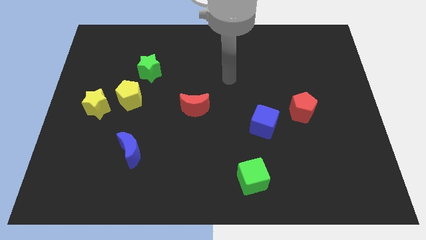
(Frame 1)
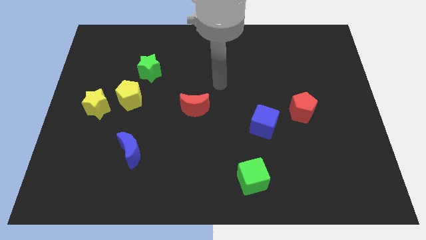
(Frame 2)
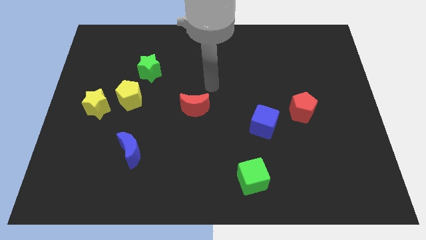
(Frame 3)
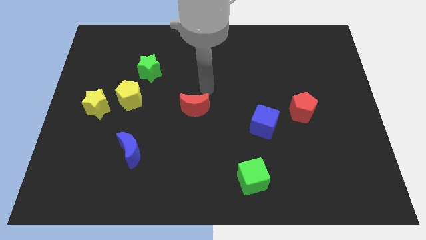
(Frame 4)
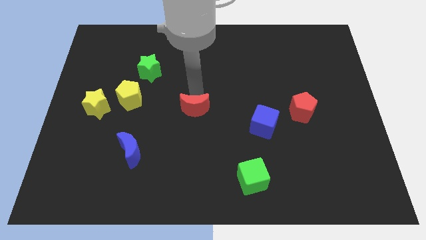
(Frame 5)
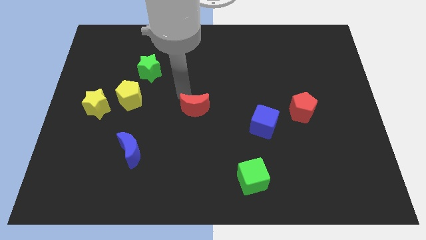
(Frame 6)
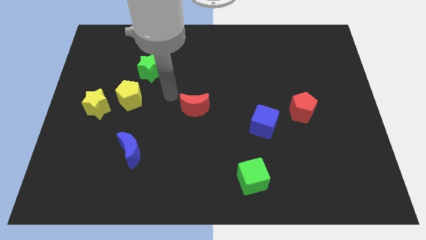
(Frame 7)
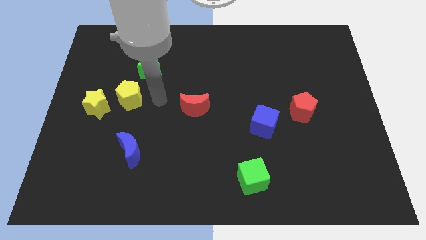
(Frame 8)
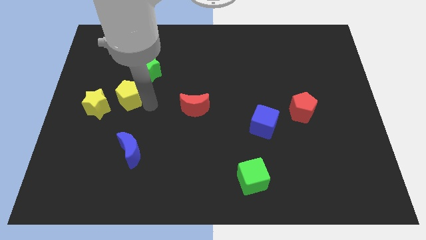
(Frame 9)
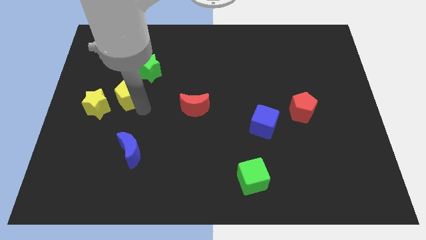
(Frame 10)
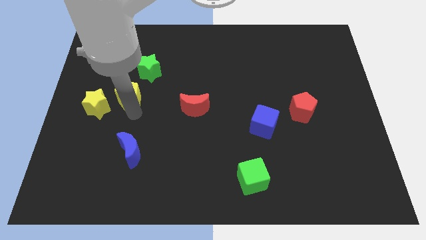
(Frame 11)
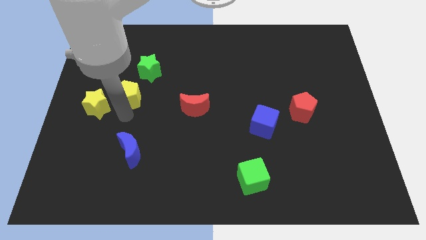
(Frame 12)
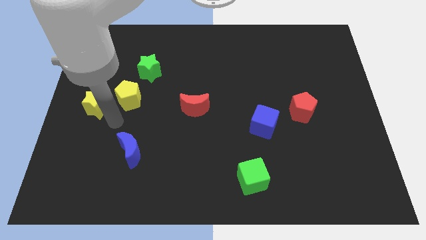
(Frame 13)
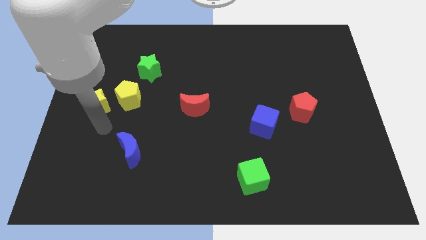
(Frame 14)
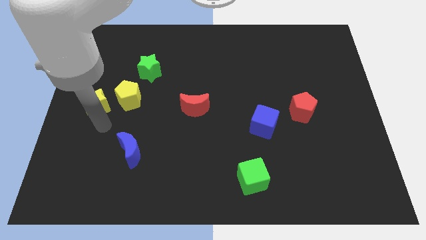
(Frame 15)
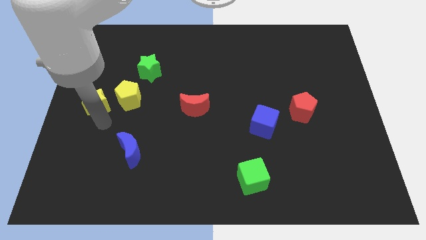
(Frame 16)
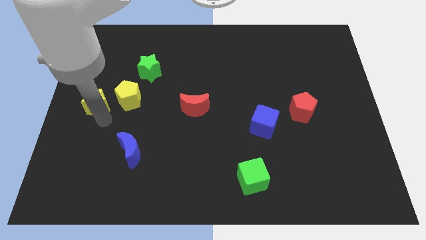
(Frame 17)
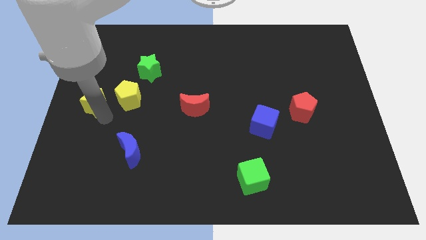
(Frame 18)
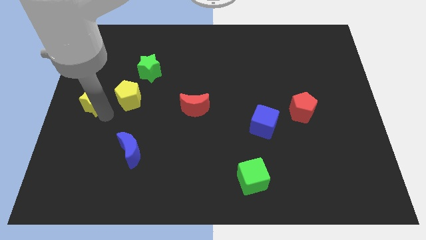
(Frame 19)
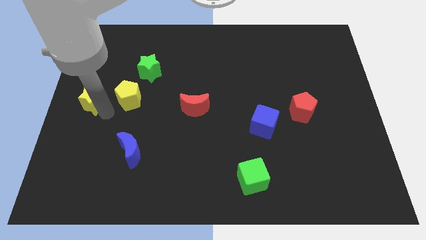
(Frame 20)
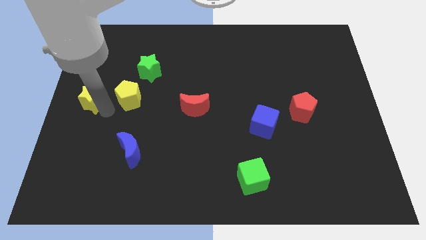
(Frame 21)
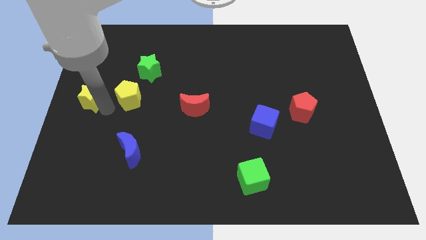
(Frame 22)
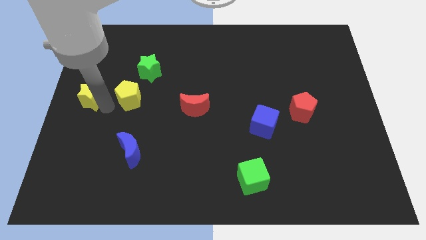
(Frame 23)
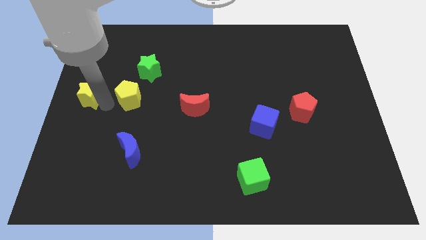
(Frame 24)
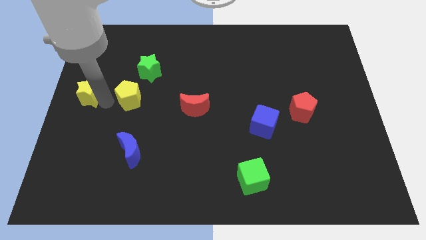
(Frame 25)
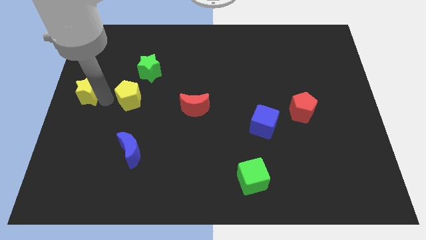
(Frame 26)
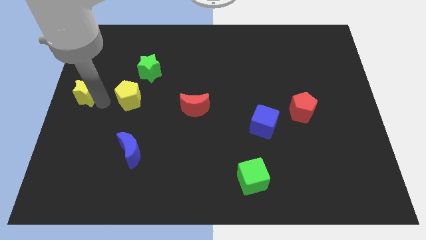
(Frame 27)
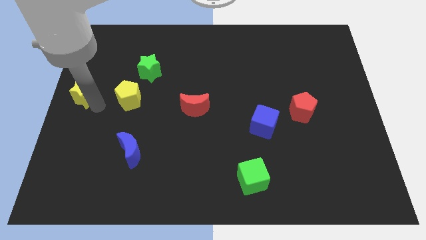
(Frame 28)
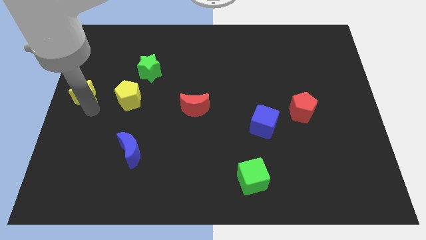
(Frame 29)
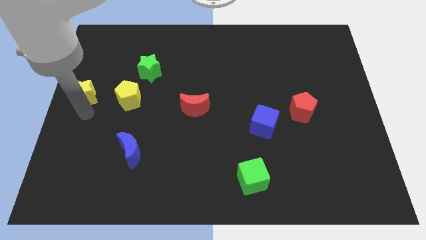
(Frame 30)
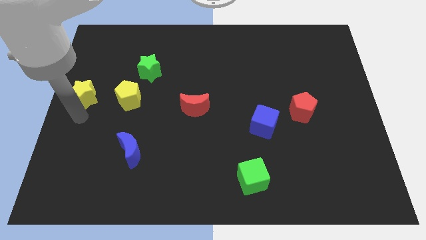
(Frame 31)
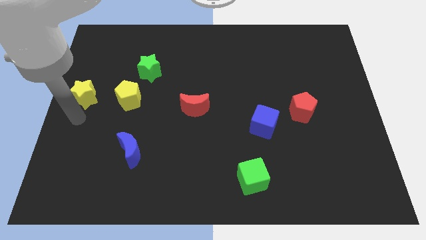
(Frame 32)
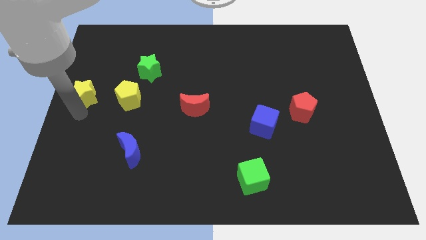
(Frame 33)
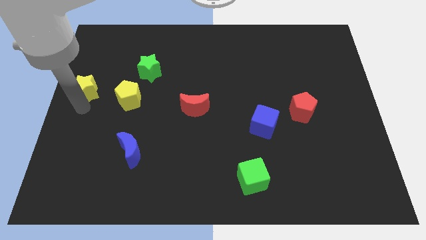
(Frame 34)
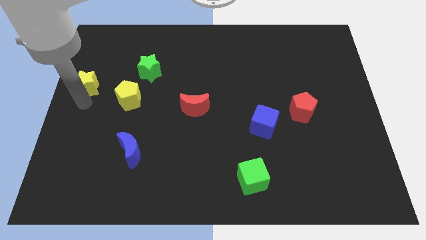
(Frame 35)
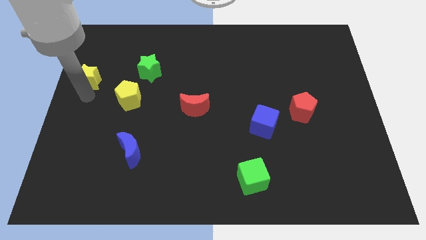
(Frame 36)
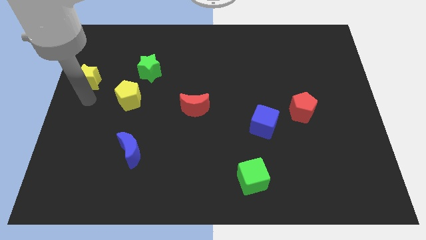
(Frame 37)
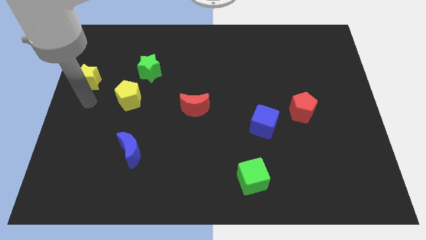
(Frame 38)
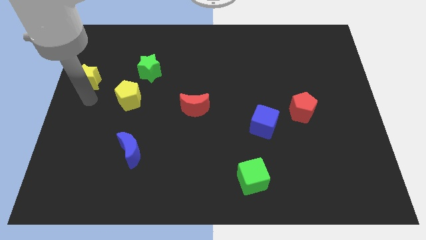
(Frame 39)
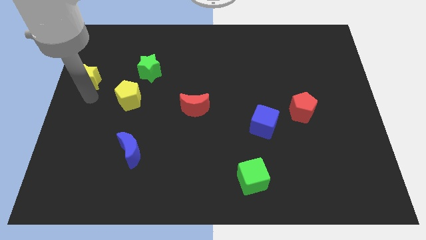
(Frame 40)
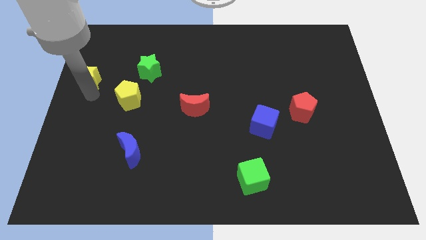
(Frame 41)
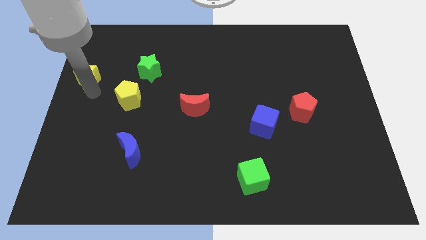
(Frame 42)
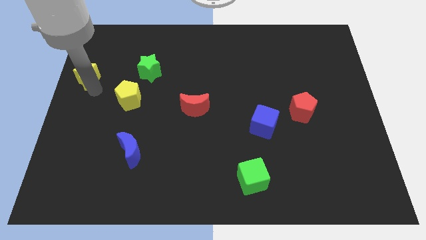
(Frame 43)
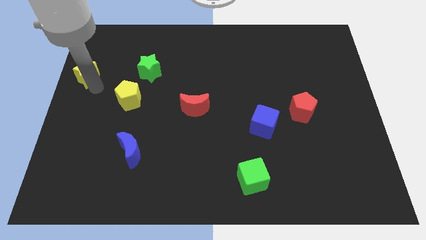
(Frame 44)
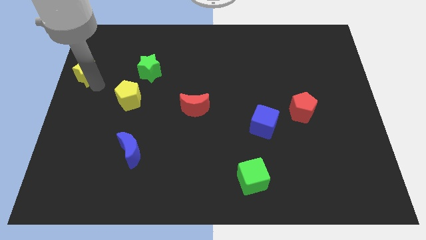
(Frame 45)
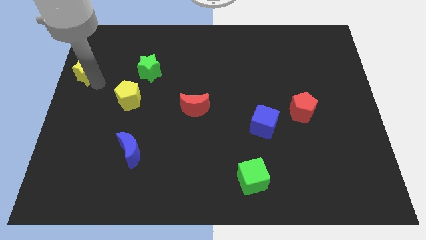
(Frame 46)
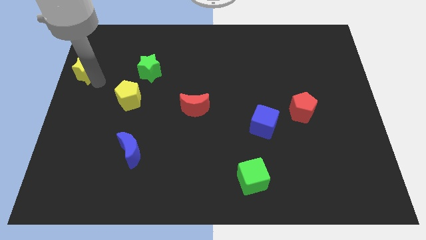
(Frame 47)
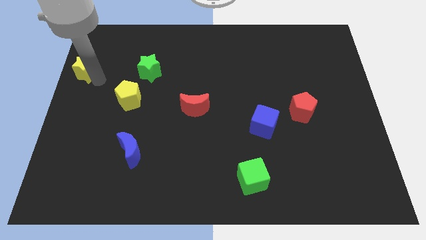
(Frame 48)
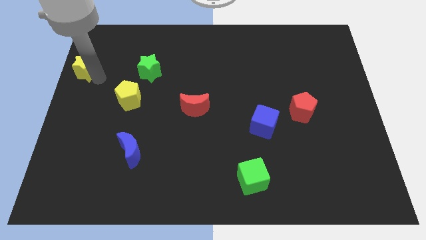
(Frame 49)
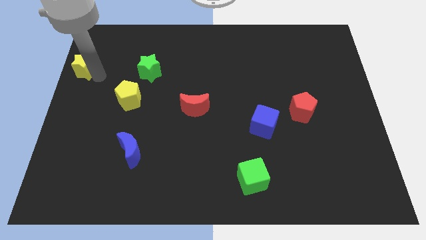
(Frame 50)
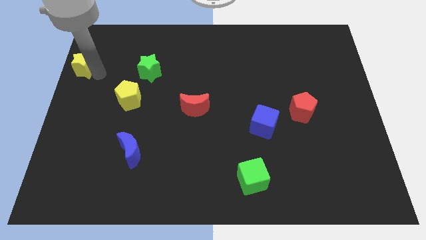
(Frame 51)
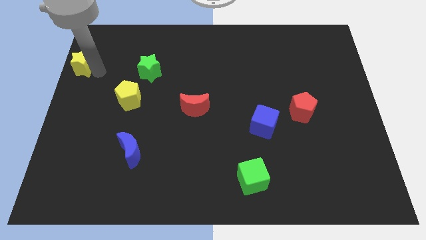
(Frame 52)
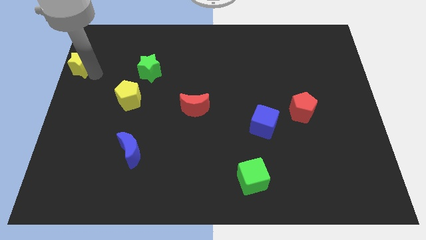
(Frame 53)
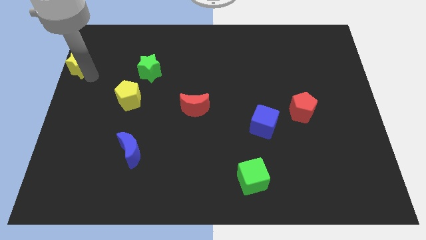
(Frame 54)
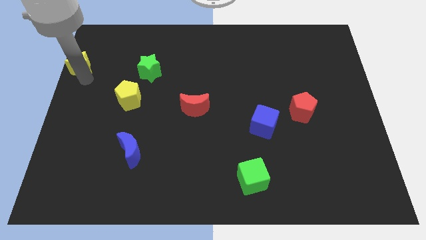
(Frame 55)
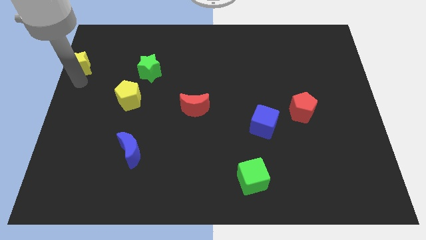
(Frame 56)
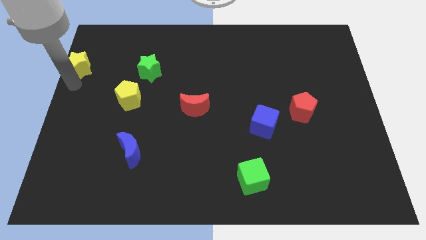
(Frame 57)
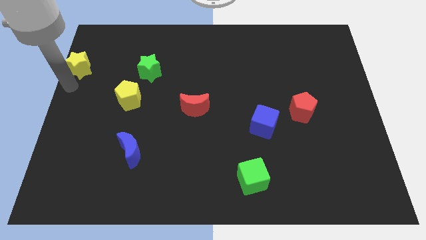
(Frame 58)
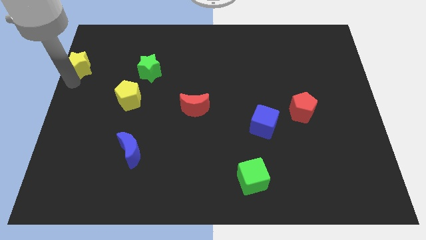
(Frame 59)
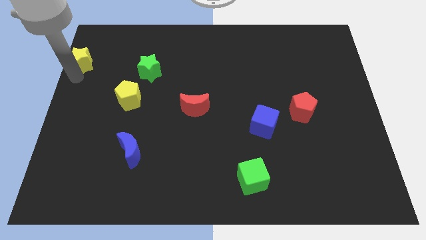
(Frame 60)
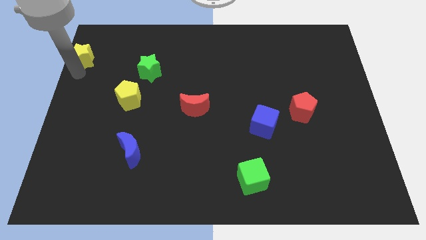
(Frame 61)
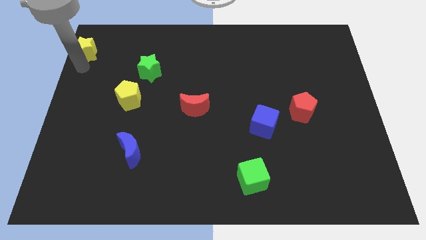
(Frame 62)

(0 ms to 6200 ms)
slide the yellow star to the top left of the board

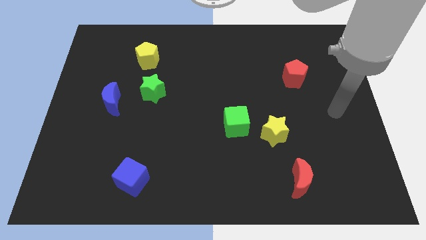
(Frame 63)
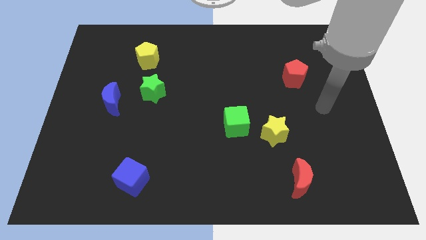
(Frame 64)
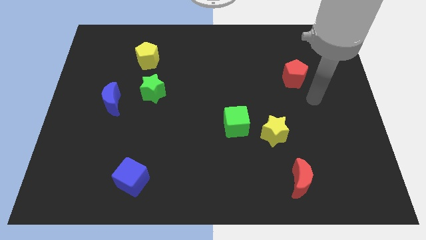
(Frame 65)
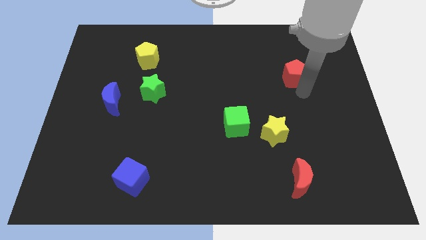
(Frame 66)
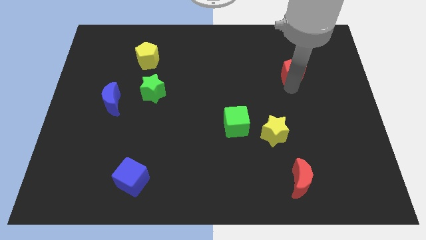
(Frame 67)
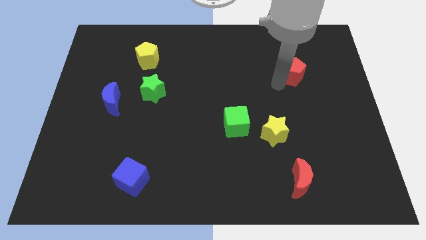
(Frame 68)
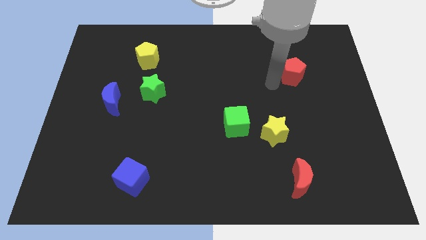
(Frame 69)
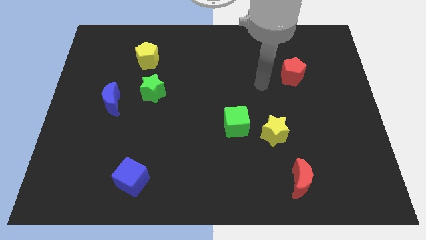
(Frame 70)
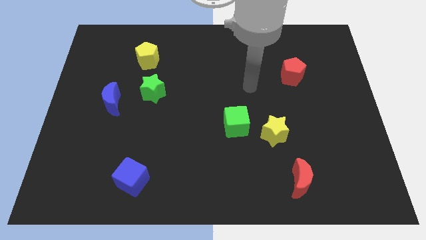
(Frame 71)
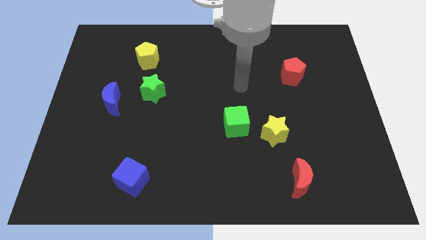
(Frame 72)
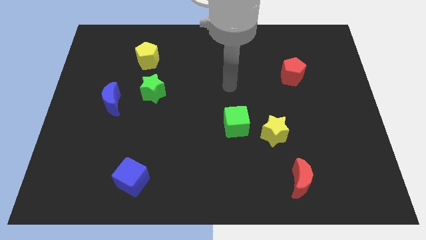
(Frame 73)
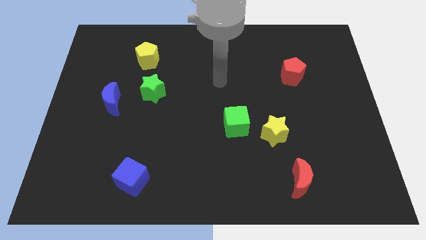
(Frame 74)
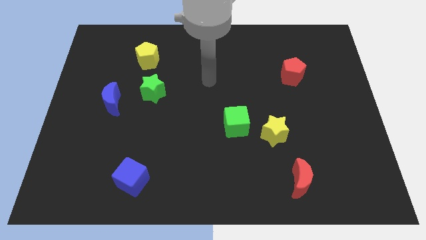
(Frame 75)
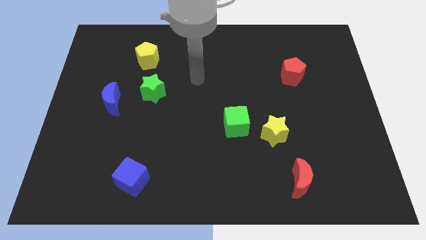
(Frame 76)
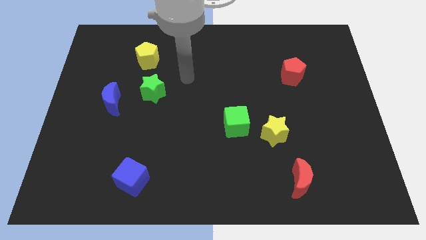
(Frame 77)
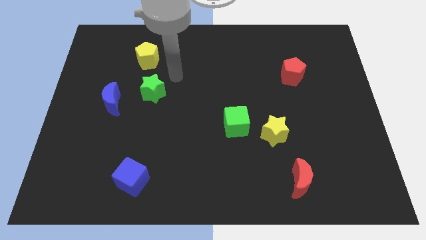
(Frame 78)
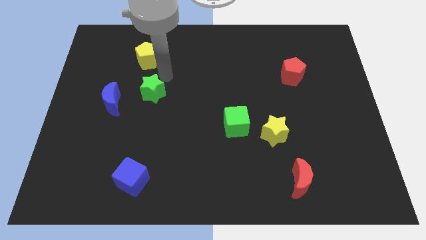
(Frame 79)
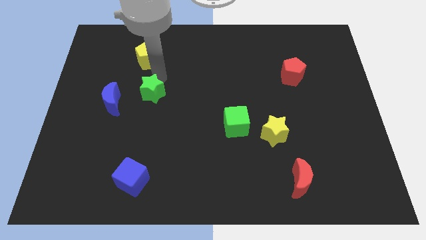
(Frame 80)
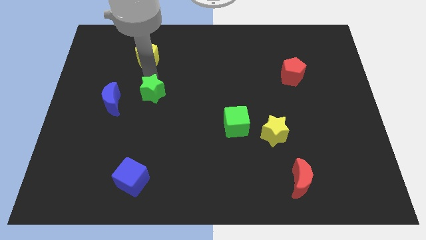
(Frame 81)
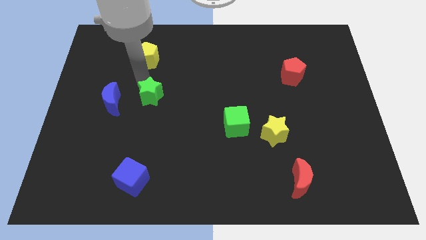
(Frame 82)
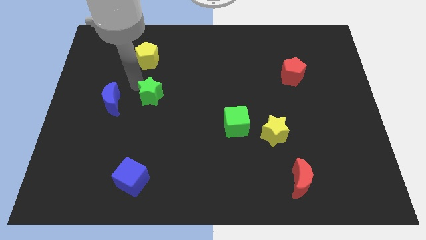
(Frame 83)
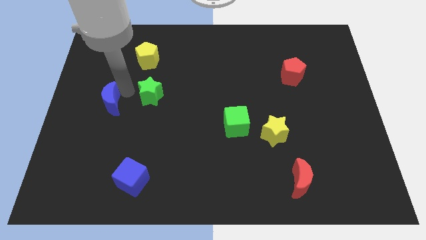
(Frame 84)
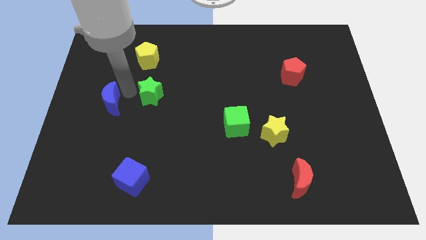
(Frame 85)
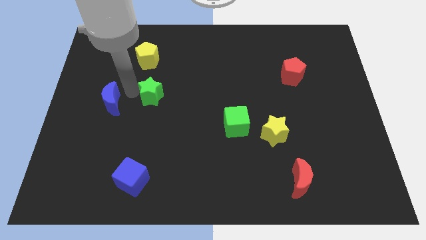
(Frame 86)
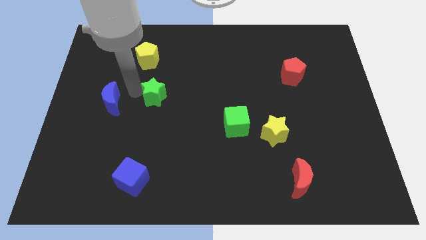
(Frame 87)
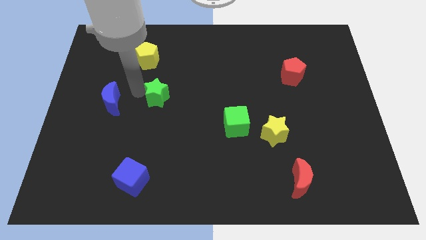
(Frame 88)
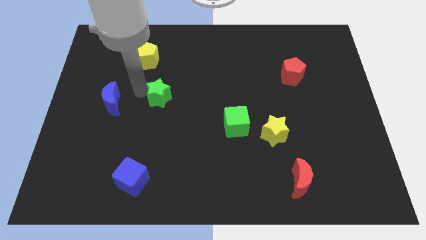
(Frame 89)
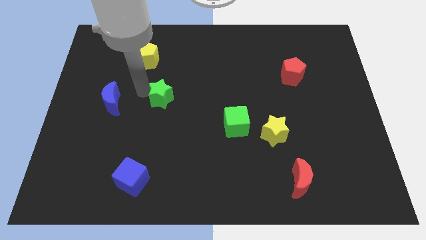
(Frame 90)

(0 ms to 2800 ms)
move the green star to the middle
